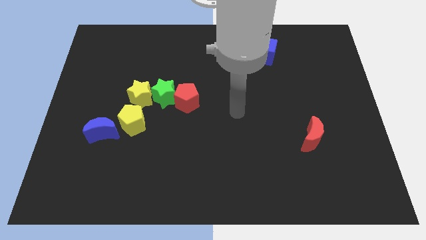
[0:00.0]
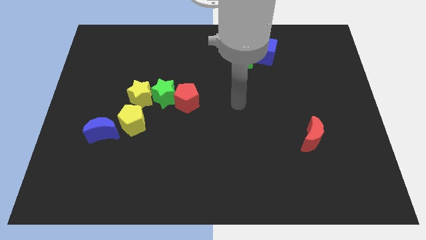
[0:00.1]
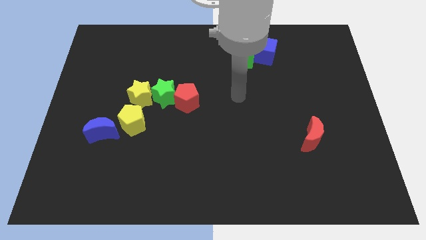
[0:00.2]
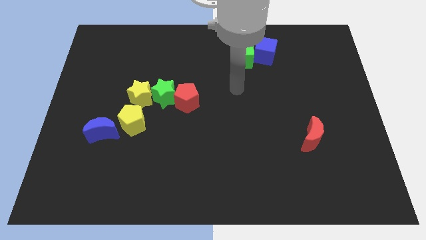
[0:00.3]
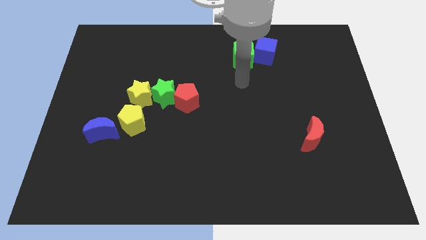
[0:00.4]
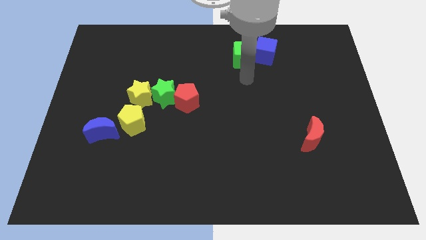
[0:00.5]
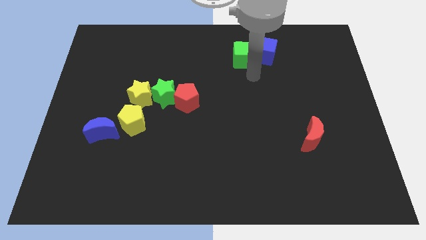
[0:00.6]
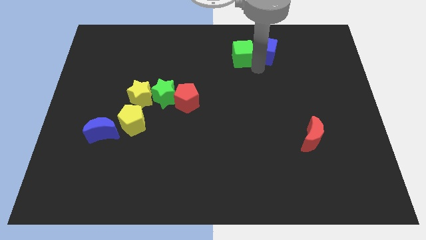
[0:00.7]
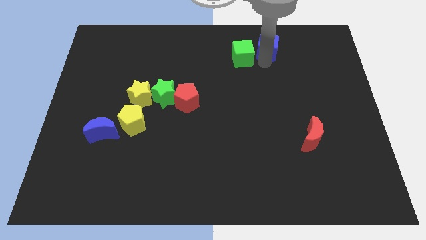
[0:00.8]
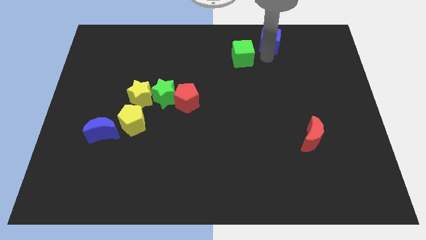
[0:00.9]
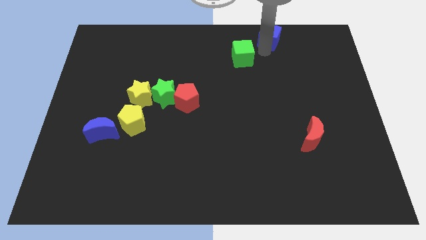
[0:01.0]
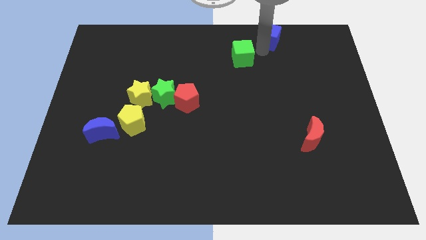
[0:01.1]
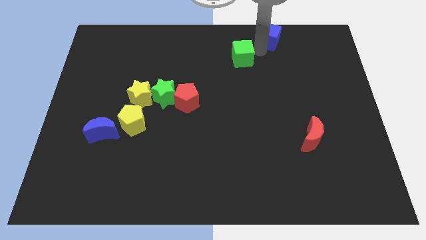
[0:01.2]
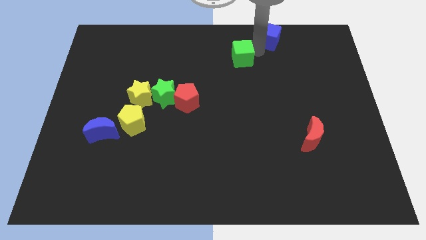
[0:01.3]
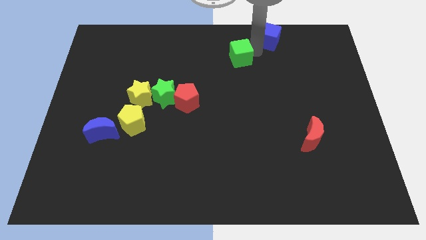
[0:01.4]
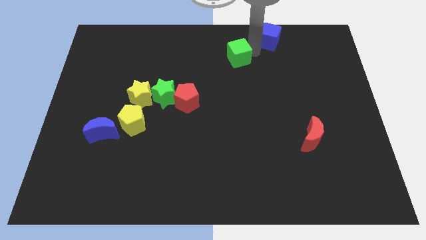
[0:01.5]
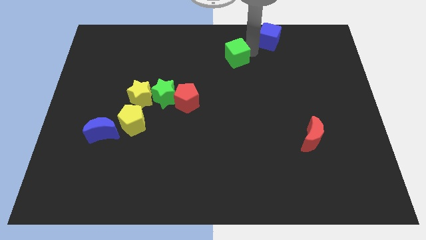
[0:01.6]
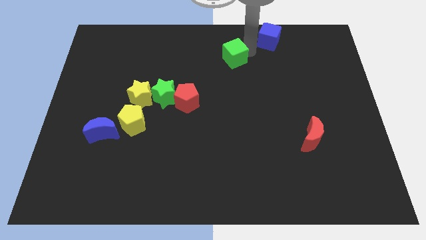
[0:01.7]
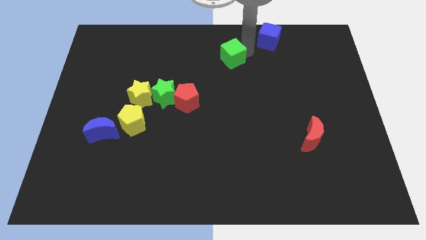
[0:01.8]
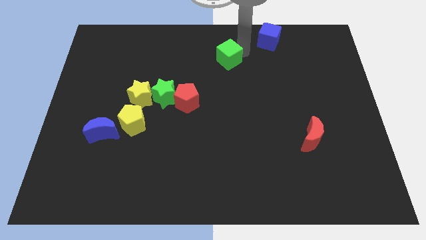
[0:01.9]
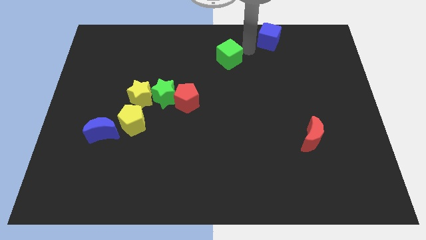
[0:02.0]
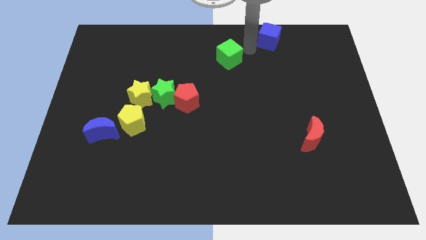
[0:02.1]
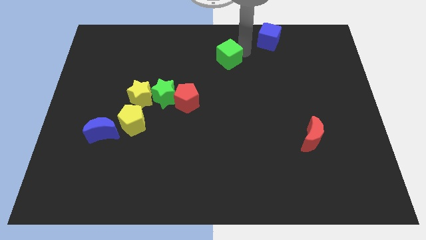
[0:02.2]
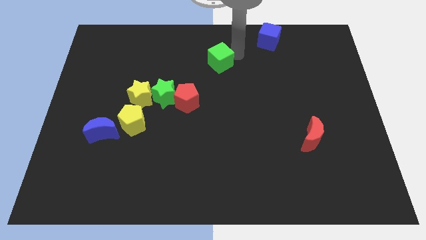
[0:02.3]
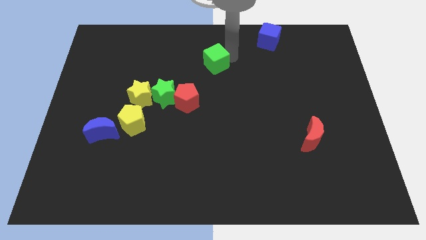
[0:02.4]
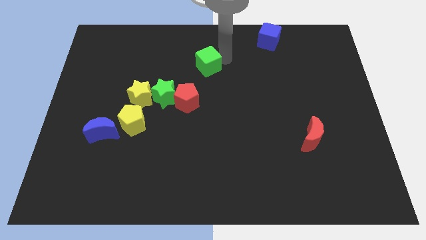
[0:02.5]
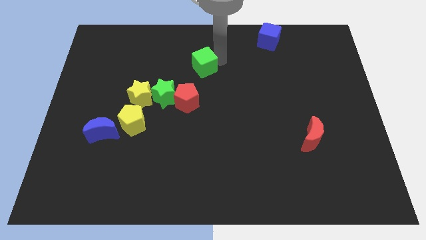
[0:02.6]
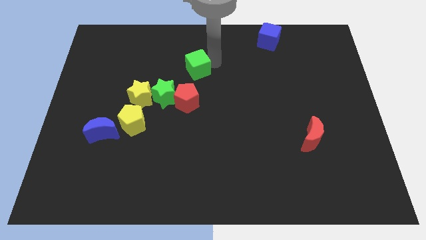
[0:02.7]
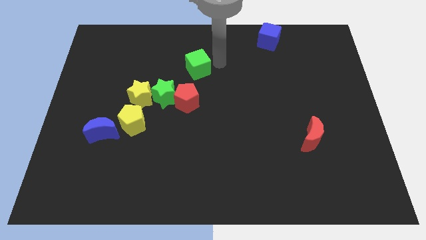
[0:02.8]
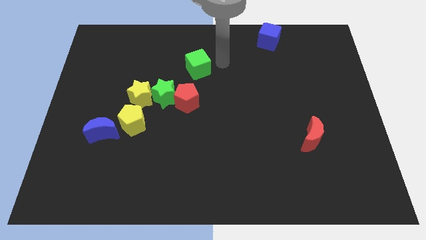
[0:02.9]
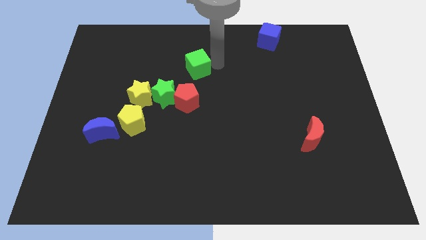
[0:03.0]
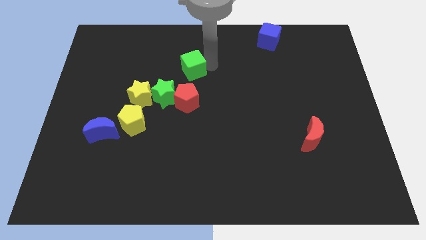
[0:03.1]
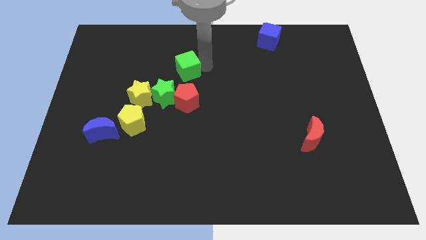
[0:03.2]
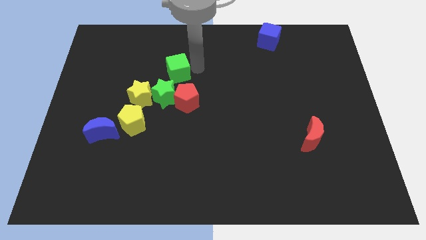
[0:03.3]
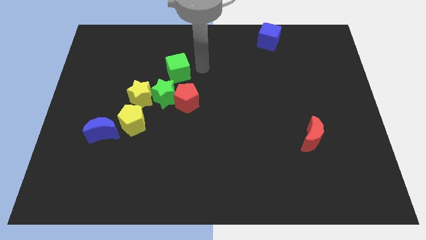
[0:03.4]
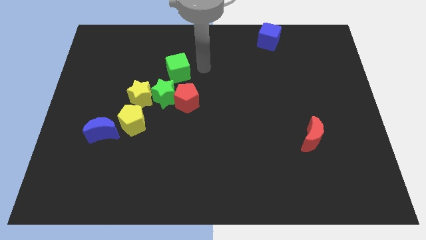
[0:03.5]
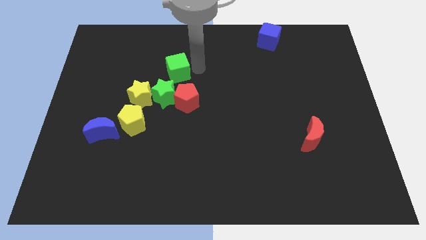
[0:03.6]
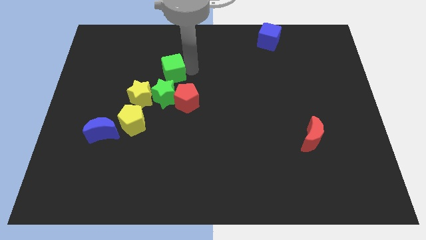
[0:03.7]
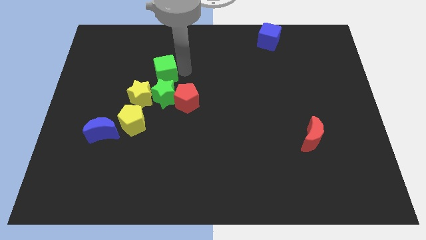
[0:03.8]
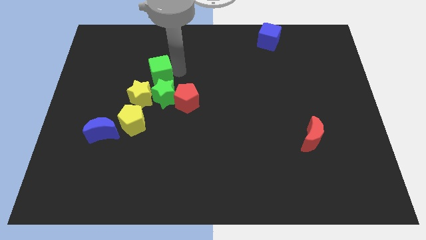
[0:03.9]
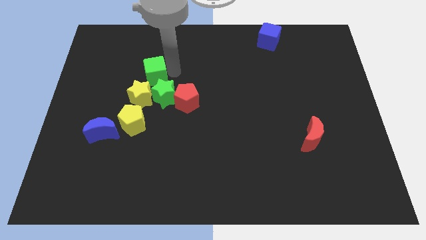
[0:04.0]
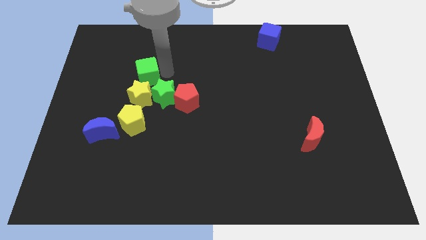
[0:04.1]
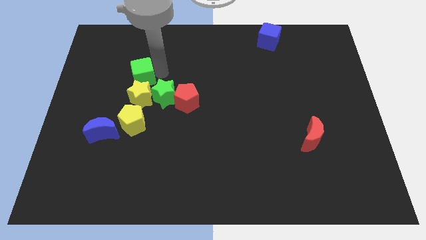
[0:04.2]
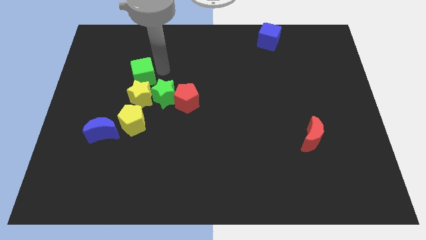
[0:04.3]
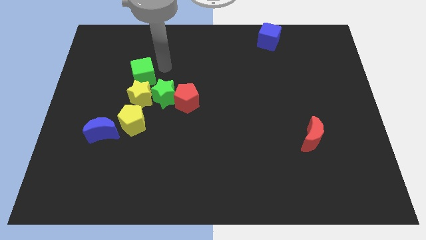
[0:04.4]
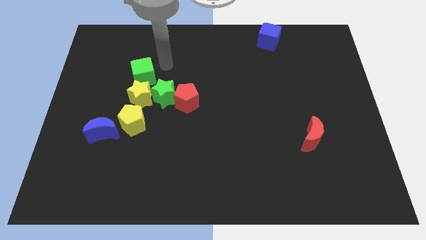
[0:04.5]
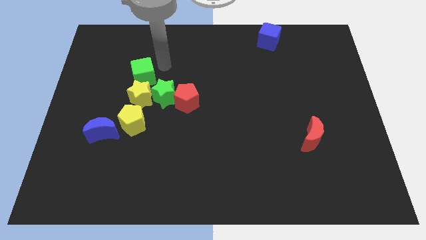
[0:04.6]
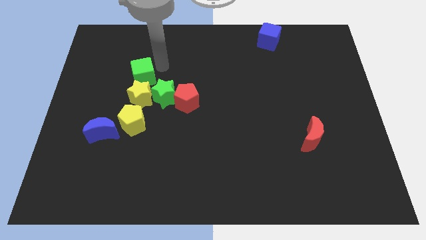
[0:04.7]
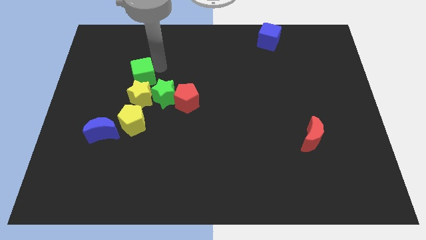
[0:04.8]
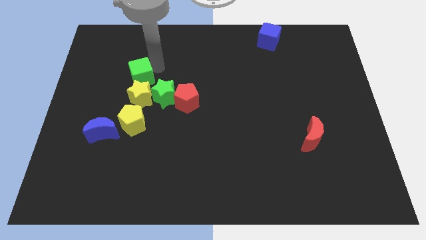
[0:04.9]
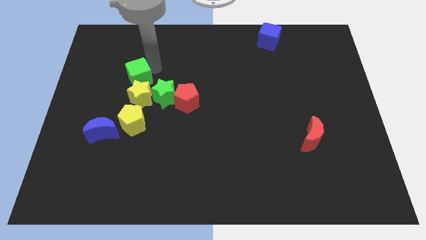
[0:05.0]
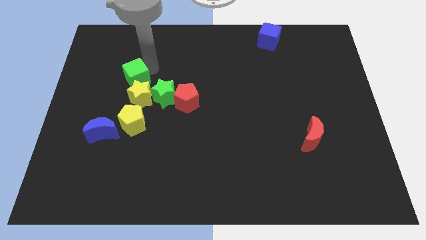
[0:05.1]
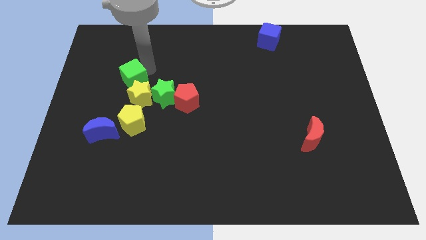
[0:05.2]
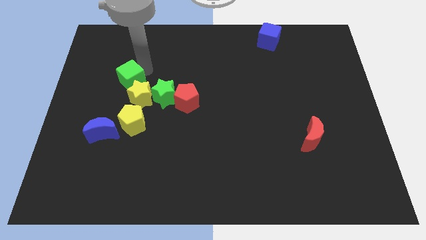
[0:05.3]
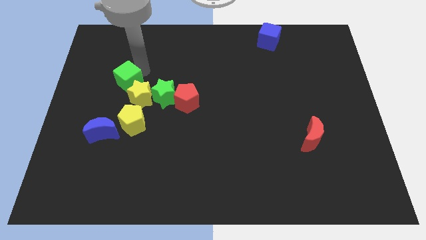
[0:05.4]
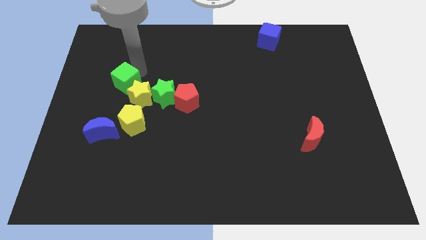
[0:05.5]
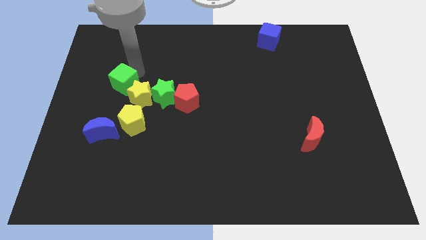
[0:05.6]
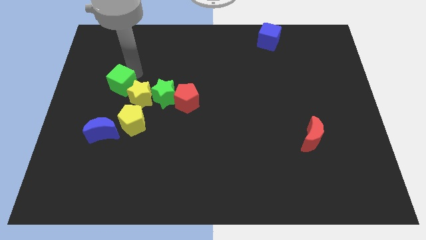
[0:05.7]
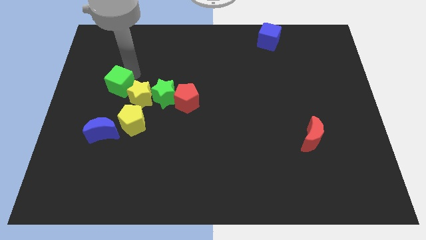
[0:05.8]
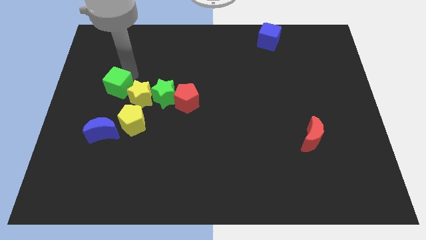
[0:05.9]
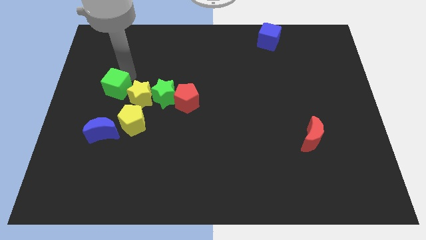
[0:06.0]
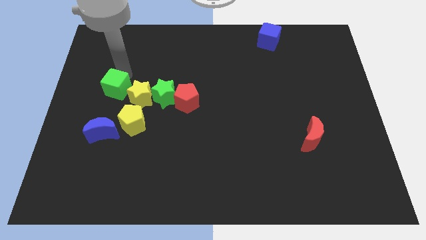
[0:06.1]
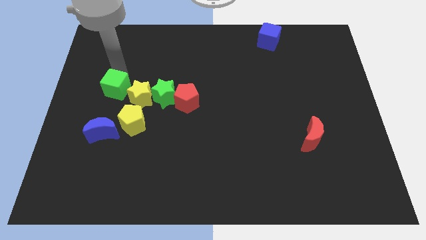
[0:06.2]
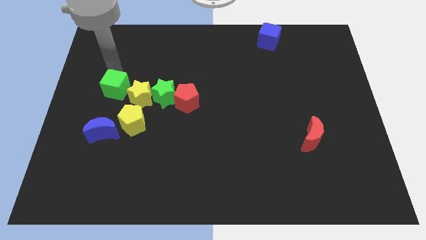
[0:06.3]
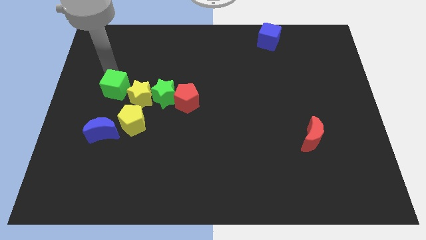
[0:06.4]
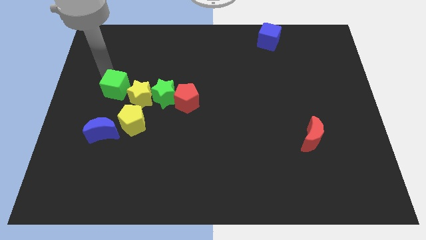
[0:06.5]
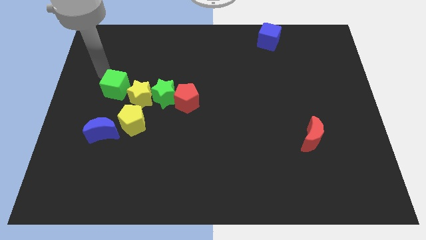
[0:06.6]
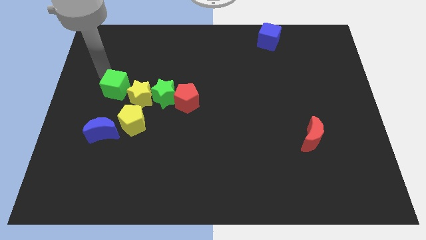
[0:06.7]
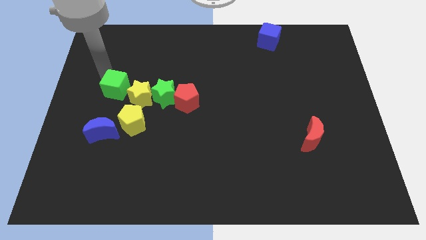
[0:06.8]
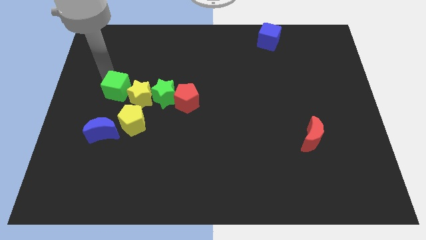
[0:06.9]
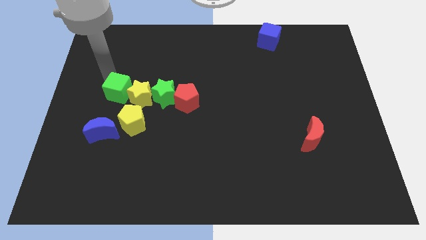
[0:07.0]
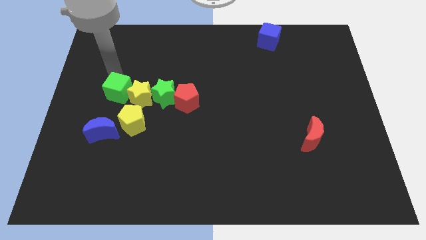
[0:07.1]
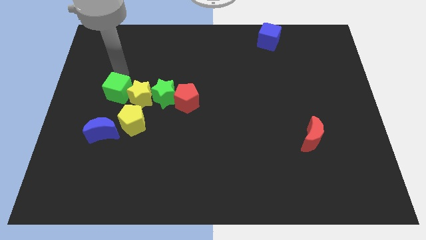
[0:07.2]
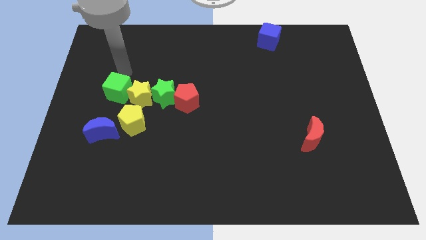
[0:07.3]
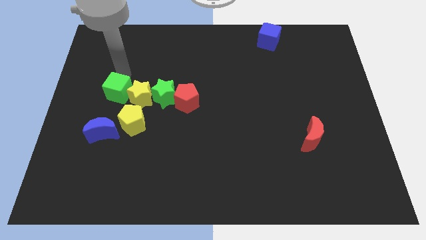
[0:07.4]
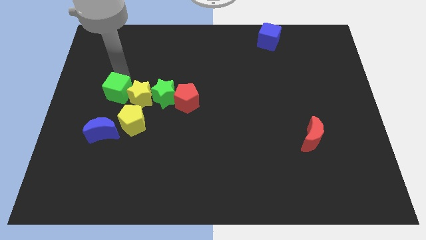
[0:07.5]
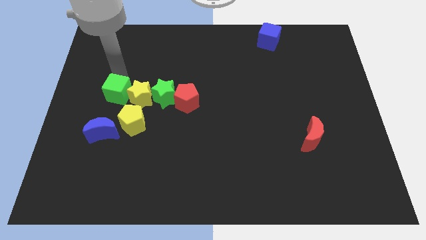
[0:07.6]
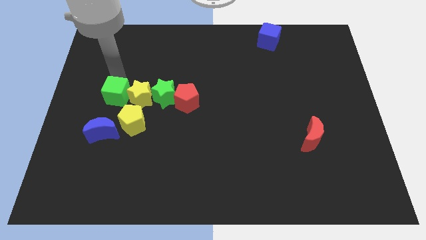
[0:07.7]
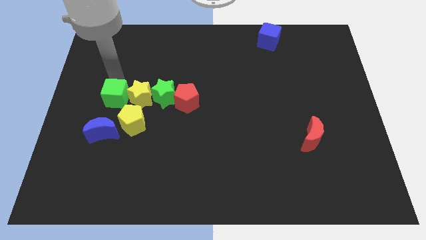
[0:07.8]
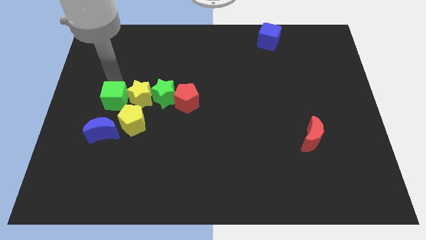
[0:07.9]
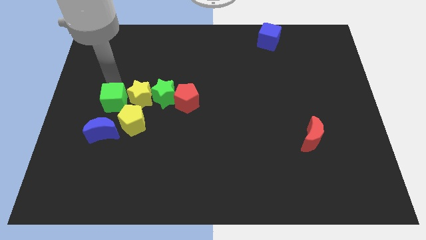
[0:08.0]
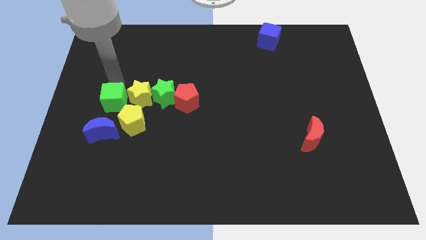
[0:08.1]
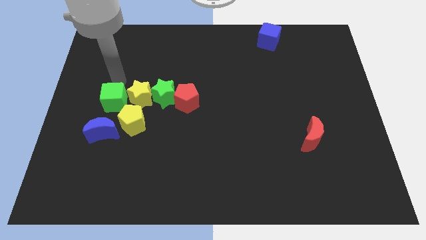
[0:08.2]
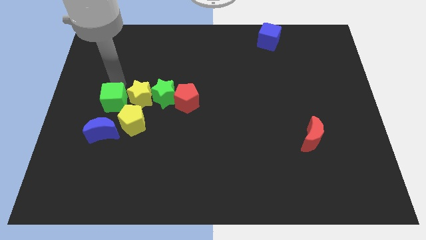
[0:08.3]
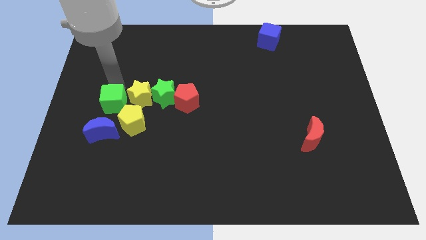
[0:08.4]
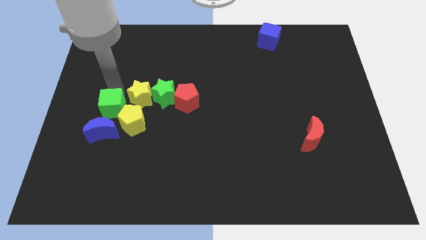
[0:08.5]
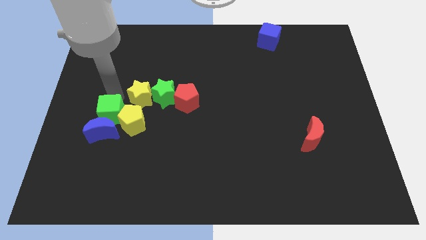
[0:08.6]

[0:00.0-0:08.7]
put the green cube close to the blue moon
